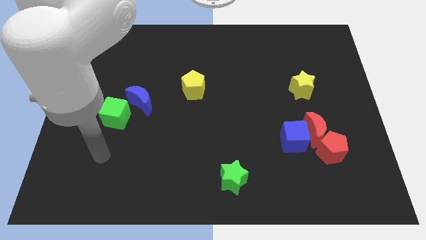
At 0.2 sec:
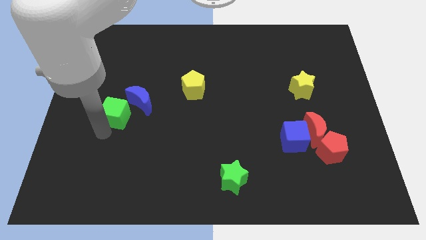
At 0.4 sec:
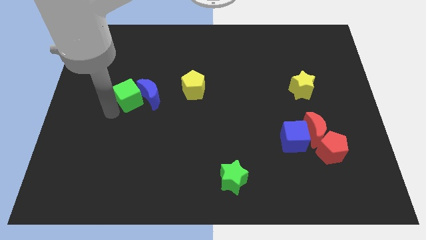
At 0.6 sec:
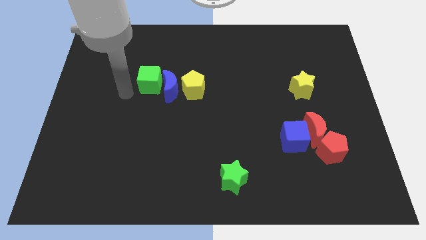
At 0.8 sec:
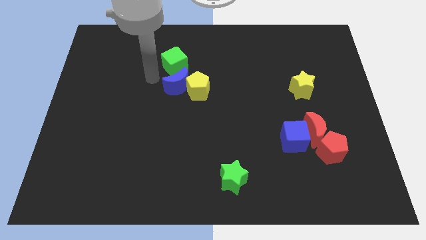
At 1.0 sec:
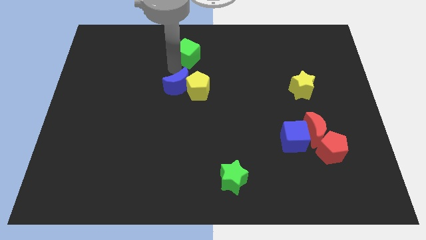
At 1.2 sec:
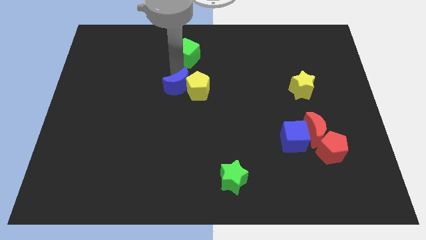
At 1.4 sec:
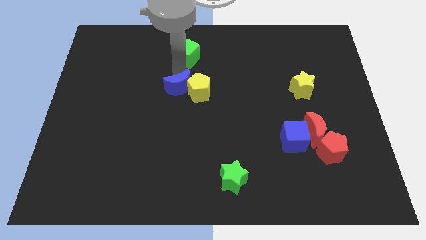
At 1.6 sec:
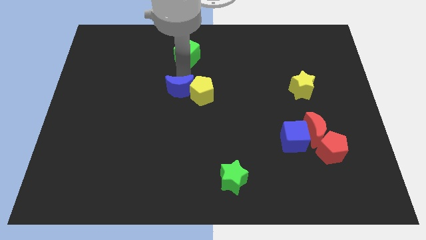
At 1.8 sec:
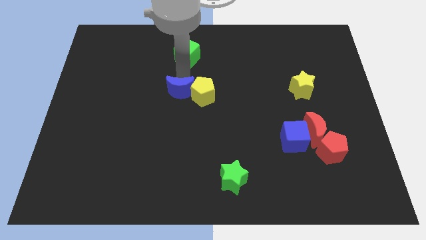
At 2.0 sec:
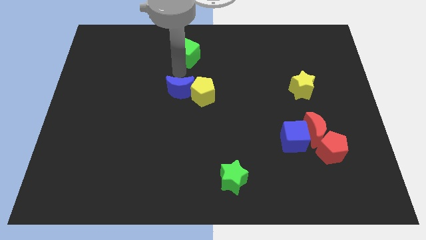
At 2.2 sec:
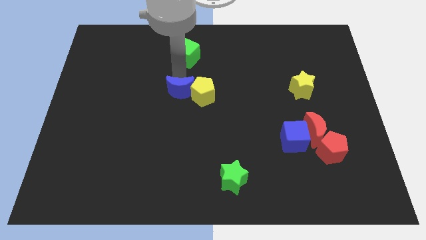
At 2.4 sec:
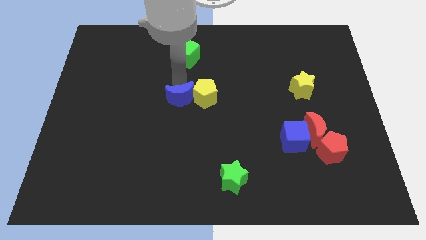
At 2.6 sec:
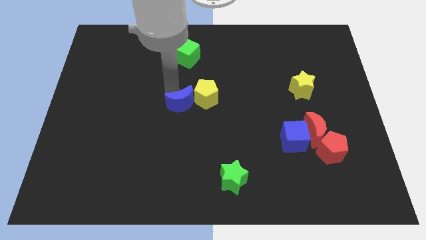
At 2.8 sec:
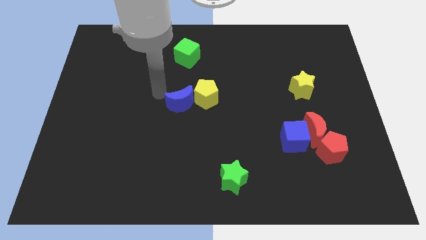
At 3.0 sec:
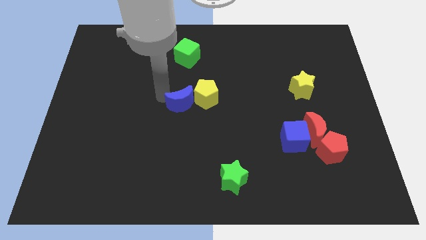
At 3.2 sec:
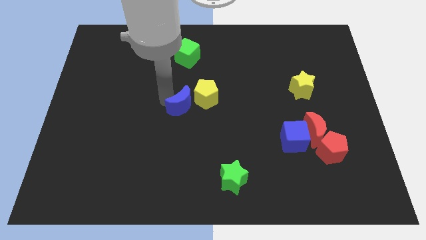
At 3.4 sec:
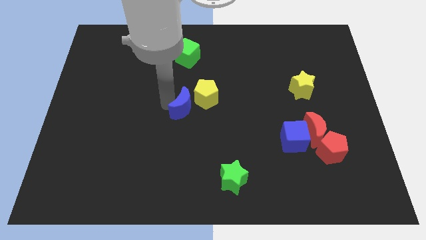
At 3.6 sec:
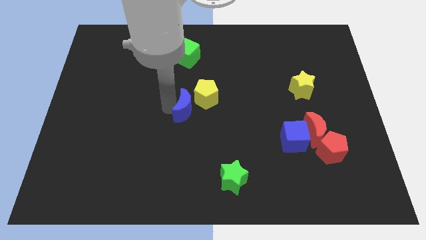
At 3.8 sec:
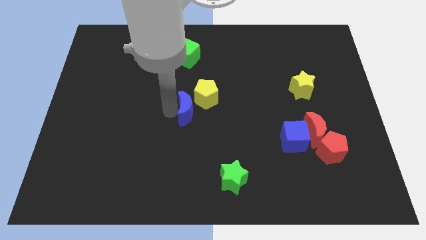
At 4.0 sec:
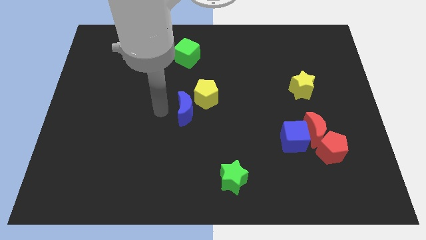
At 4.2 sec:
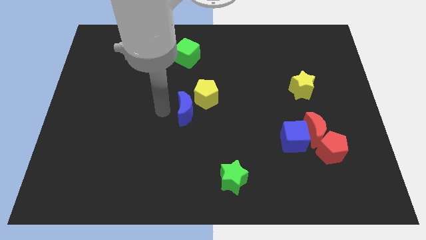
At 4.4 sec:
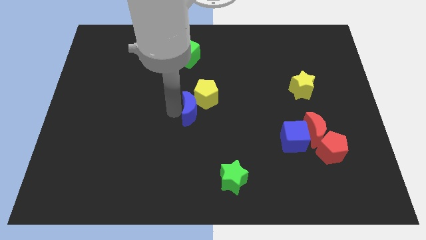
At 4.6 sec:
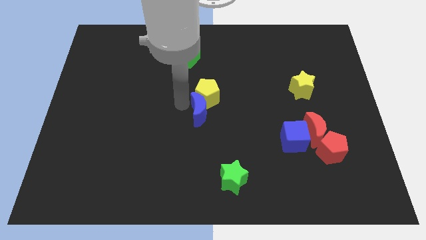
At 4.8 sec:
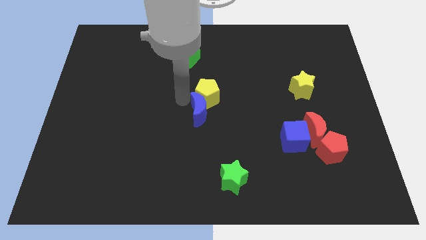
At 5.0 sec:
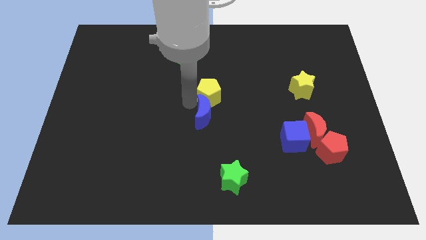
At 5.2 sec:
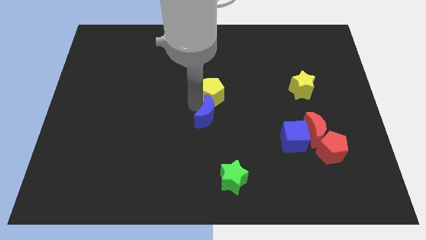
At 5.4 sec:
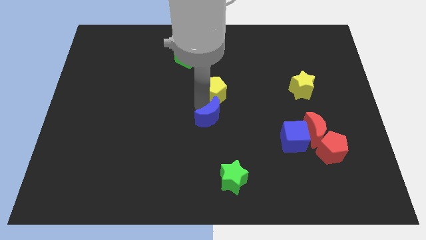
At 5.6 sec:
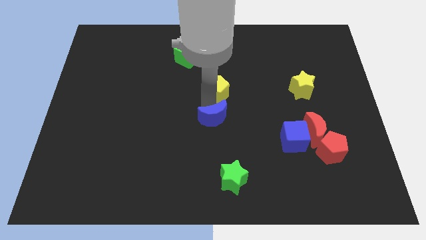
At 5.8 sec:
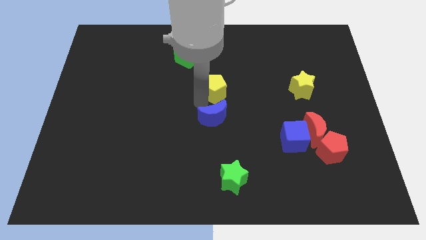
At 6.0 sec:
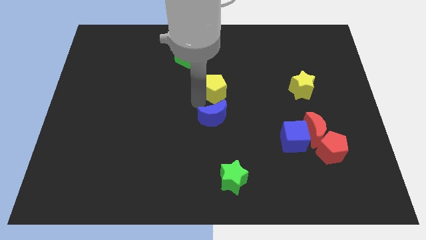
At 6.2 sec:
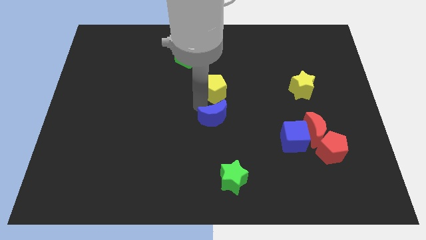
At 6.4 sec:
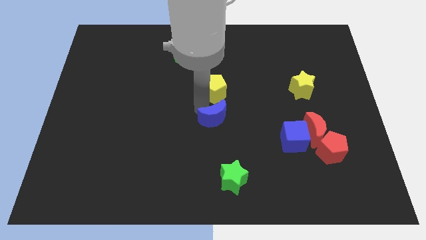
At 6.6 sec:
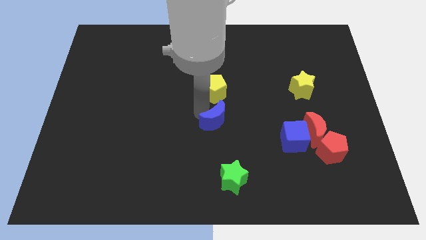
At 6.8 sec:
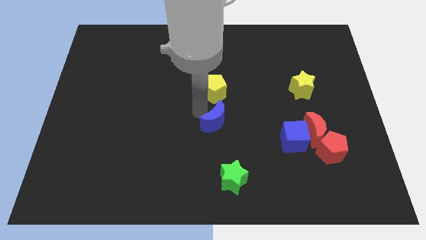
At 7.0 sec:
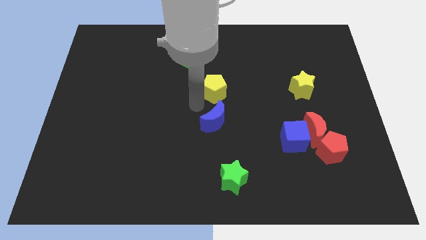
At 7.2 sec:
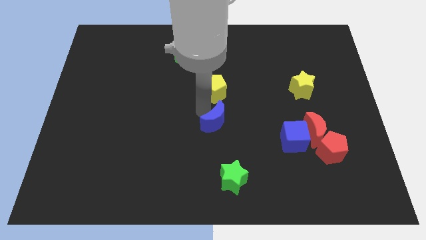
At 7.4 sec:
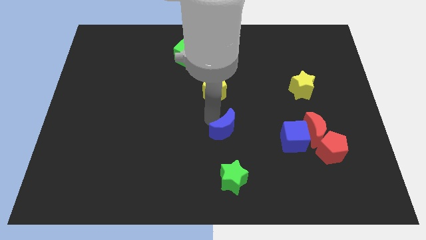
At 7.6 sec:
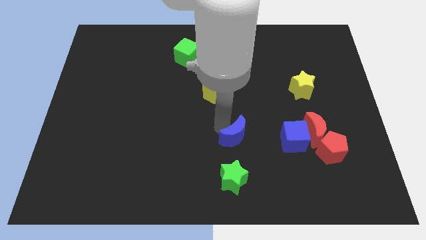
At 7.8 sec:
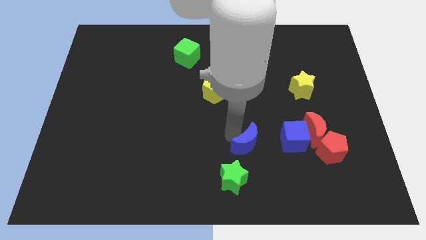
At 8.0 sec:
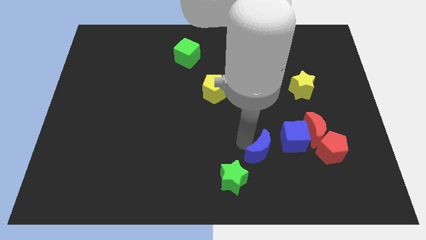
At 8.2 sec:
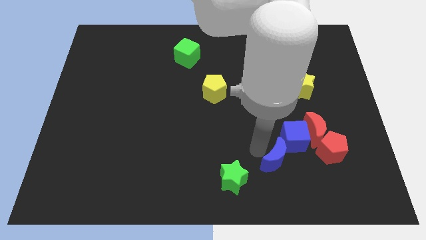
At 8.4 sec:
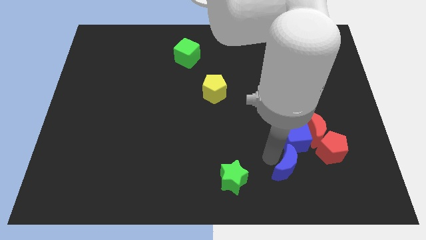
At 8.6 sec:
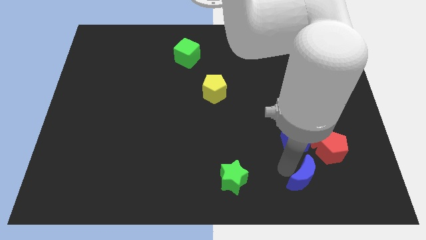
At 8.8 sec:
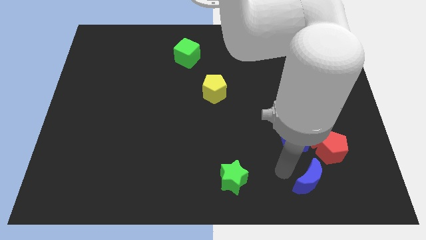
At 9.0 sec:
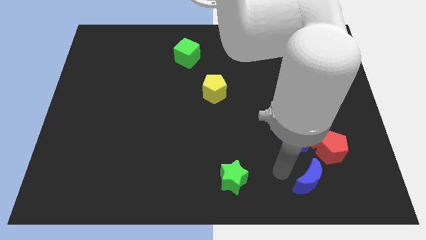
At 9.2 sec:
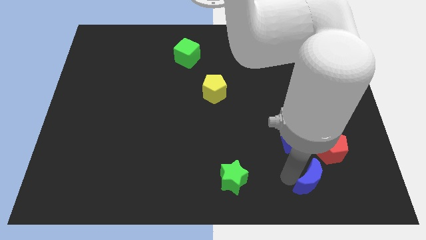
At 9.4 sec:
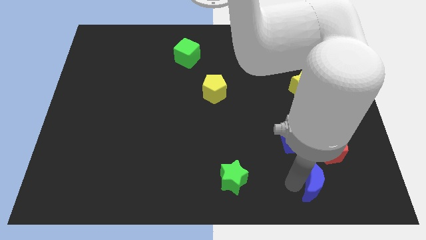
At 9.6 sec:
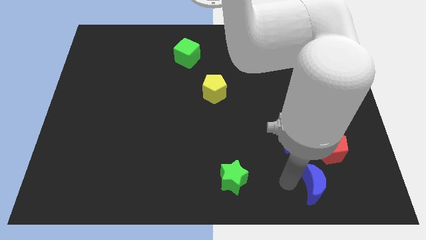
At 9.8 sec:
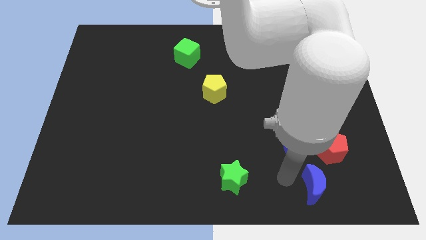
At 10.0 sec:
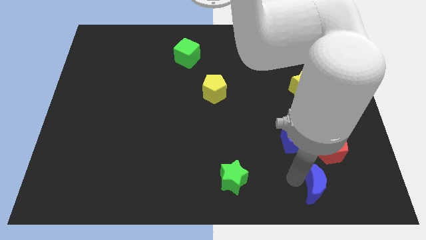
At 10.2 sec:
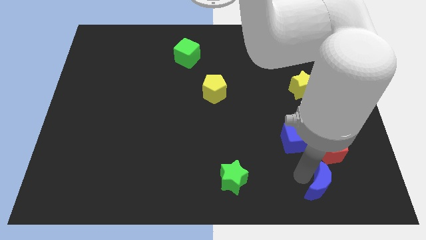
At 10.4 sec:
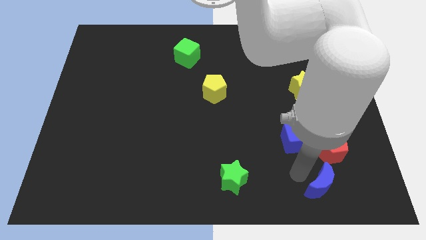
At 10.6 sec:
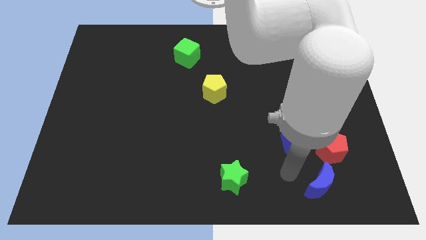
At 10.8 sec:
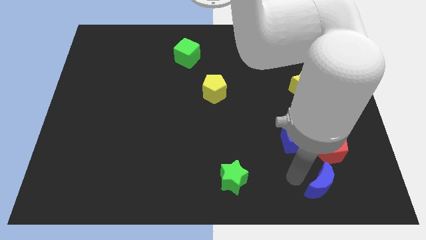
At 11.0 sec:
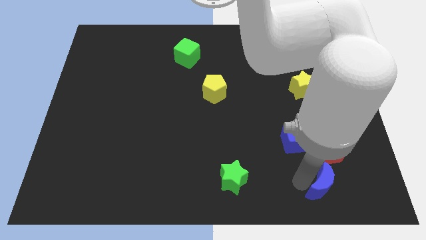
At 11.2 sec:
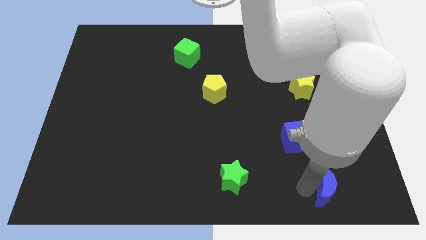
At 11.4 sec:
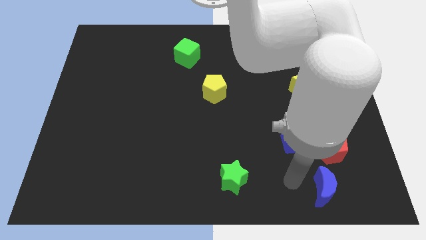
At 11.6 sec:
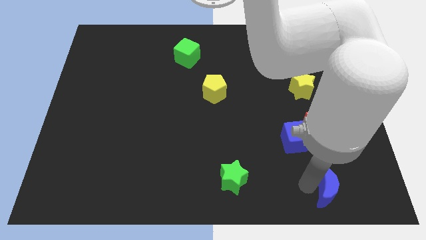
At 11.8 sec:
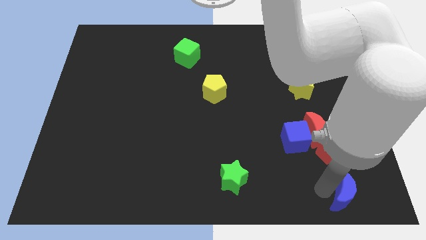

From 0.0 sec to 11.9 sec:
move the blue moon to the bottom right of the board
